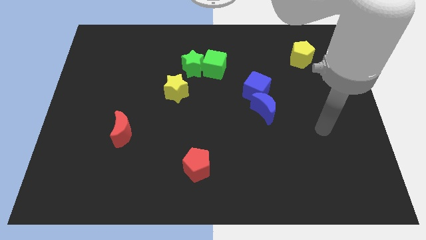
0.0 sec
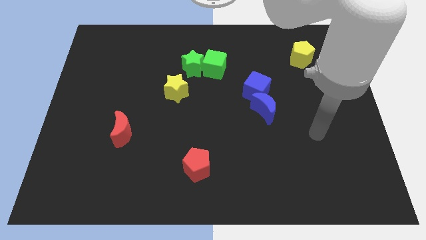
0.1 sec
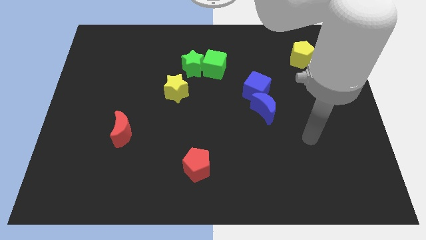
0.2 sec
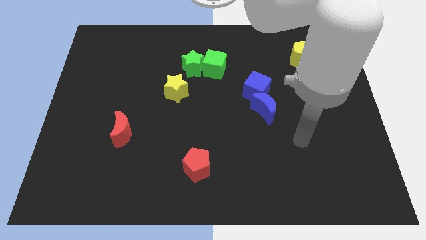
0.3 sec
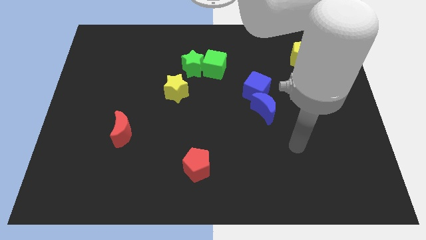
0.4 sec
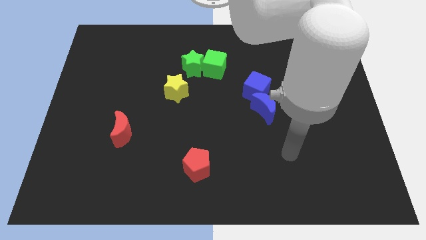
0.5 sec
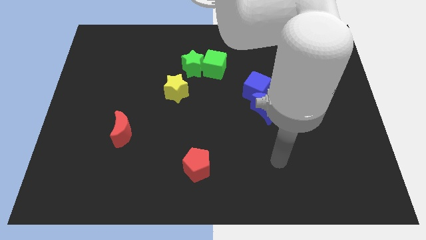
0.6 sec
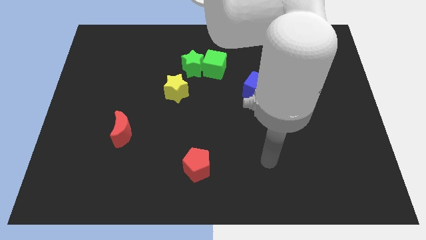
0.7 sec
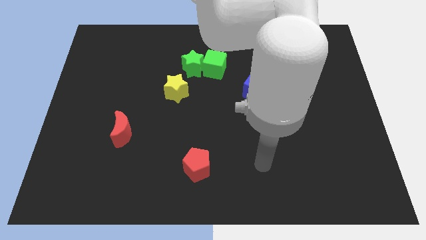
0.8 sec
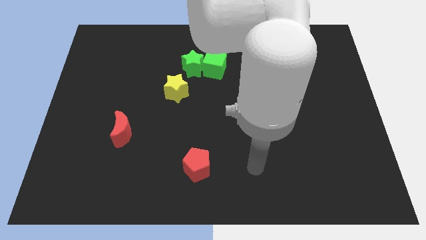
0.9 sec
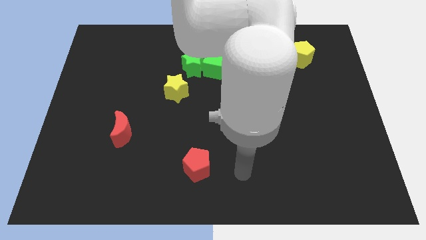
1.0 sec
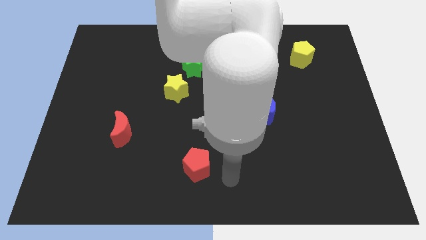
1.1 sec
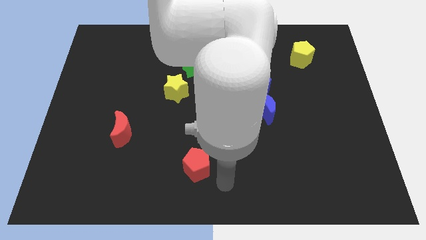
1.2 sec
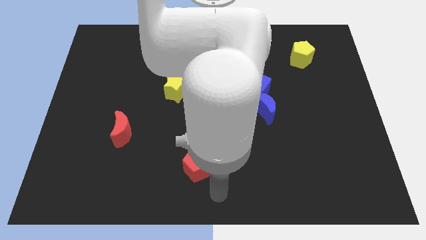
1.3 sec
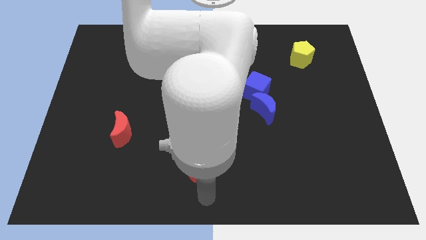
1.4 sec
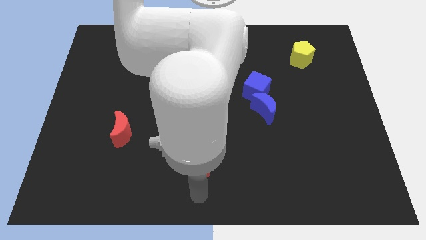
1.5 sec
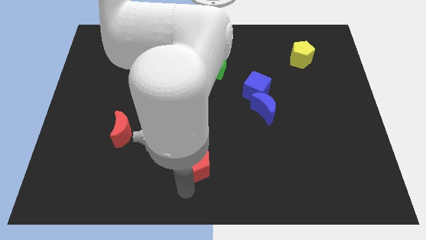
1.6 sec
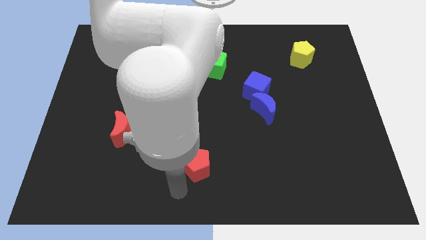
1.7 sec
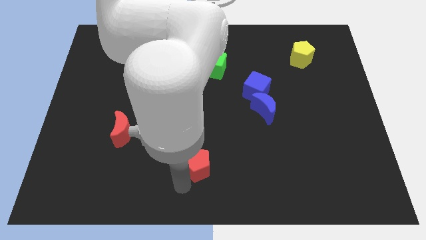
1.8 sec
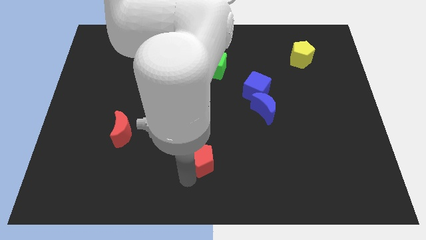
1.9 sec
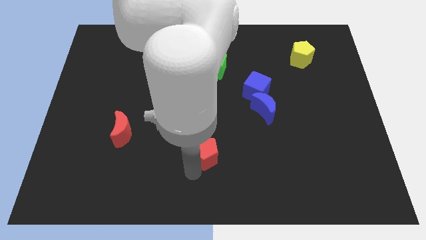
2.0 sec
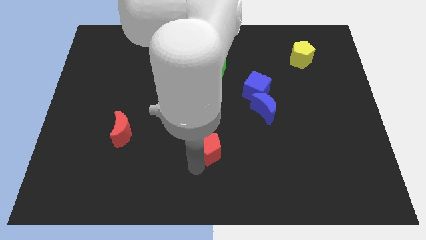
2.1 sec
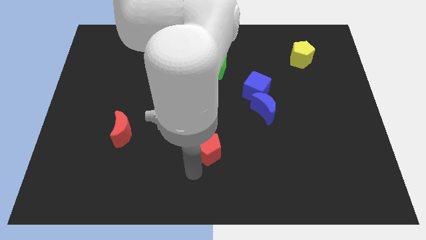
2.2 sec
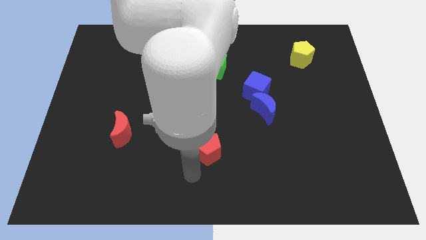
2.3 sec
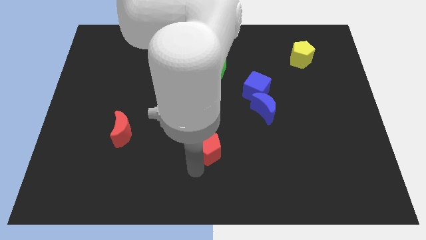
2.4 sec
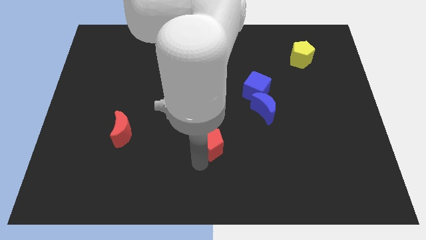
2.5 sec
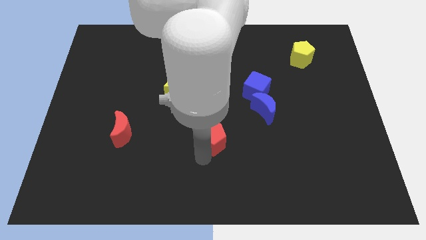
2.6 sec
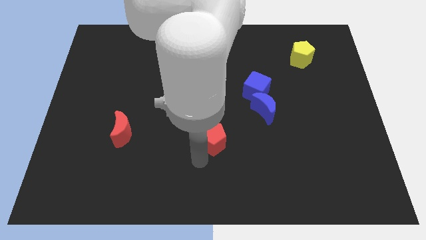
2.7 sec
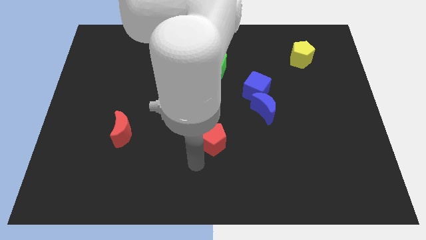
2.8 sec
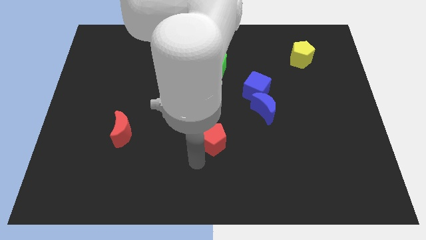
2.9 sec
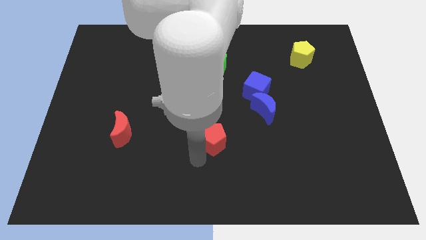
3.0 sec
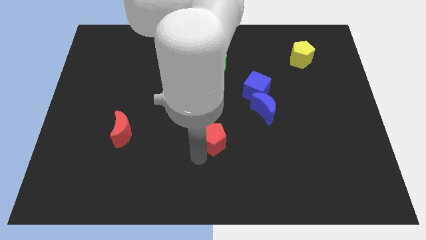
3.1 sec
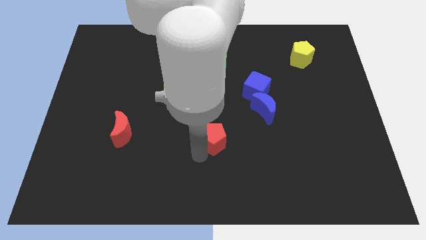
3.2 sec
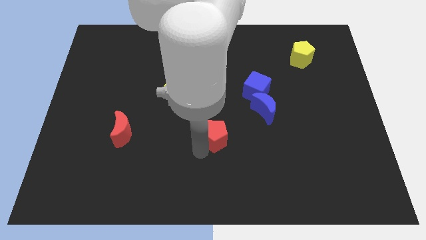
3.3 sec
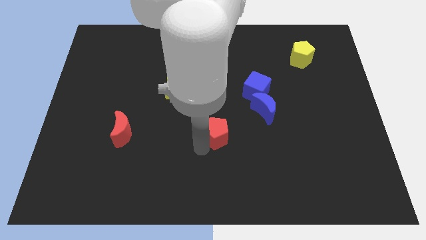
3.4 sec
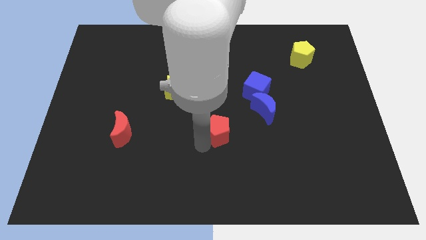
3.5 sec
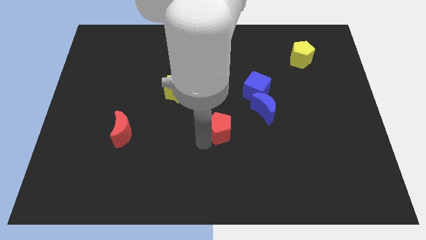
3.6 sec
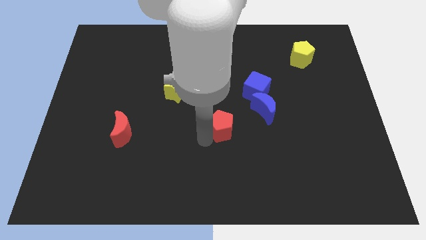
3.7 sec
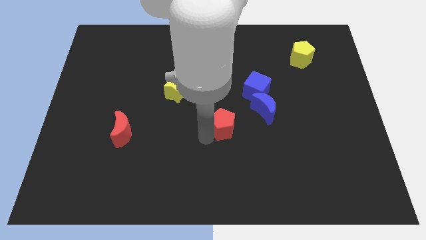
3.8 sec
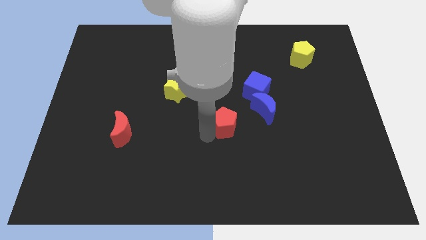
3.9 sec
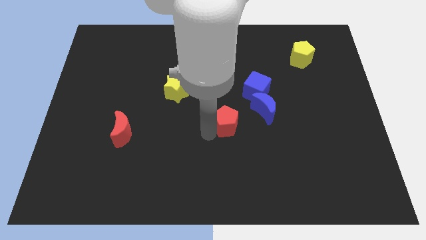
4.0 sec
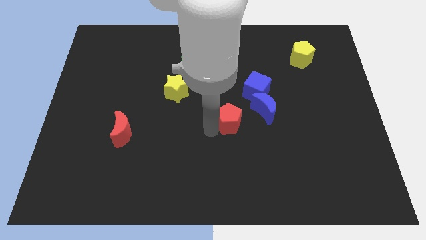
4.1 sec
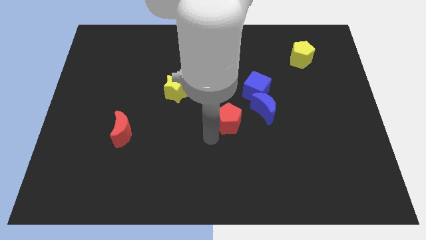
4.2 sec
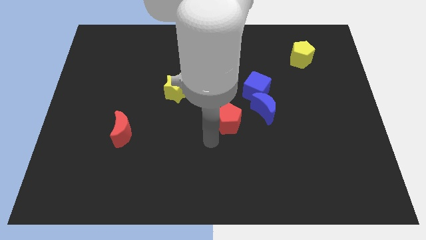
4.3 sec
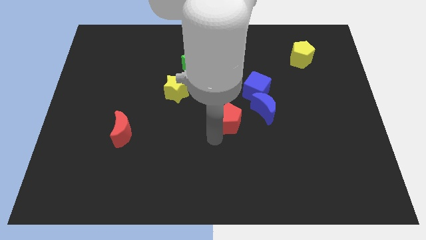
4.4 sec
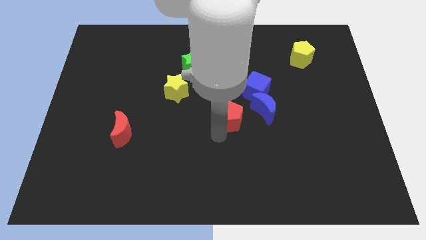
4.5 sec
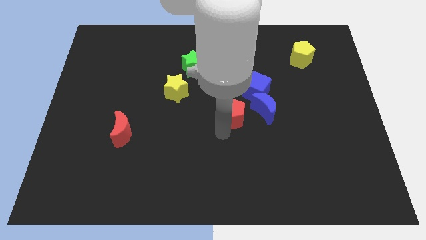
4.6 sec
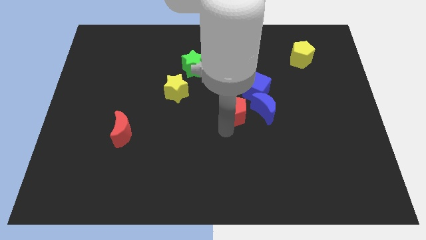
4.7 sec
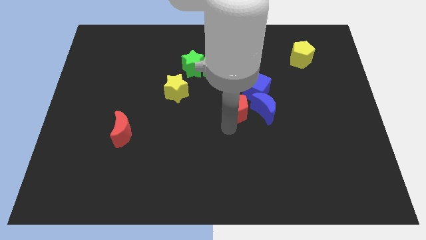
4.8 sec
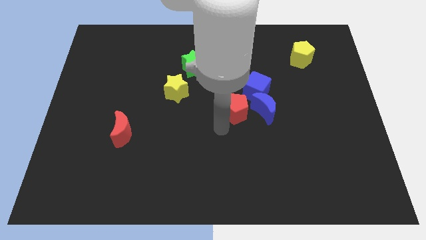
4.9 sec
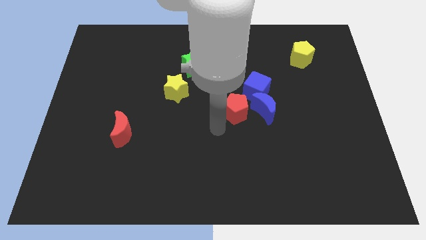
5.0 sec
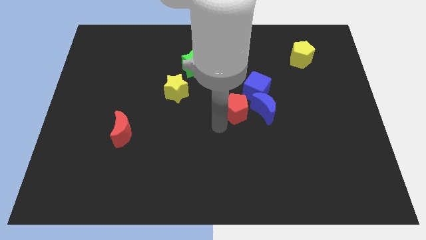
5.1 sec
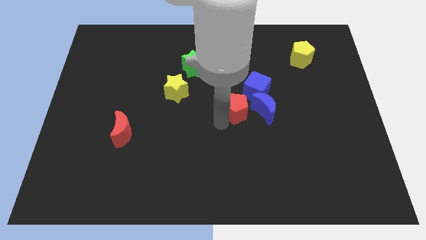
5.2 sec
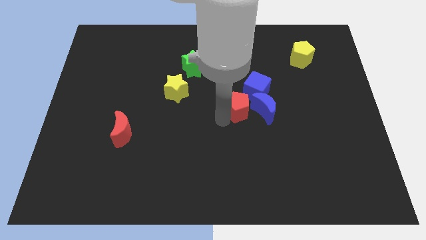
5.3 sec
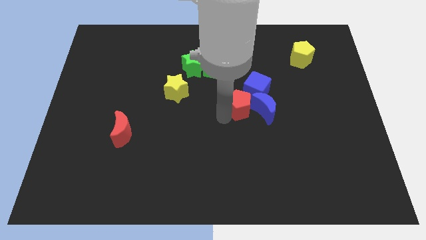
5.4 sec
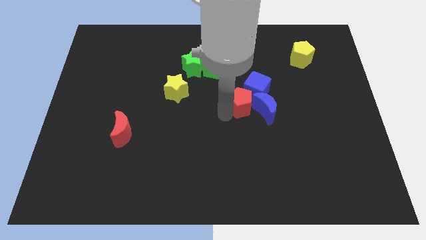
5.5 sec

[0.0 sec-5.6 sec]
move the red pentagon towards the blue cube

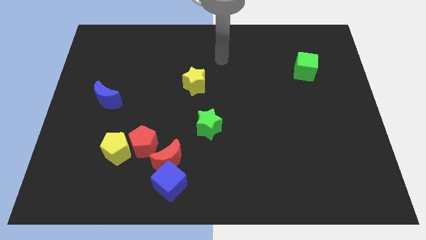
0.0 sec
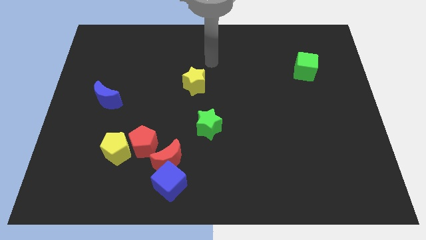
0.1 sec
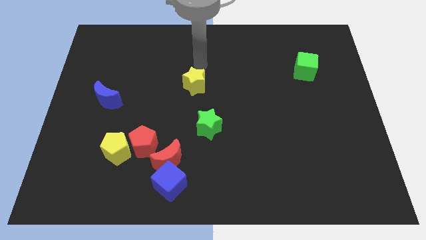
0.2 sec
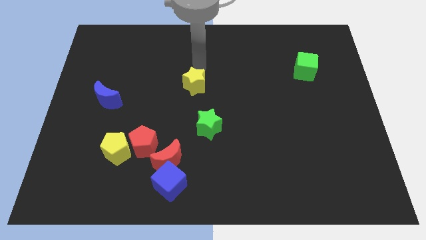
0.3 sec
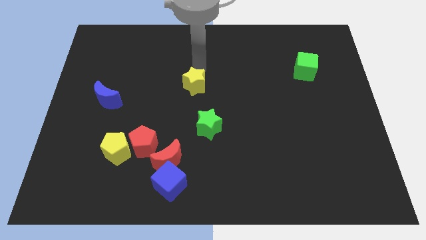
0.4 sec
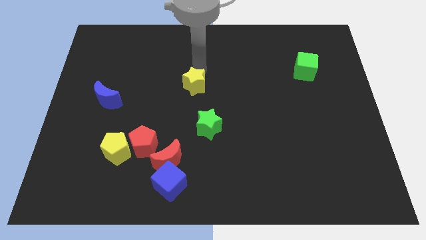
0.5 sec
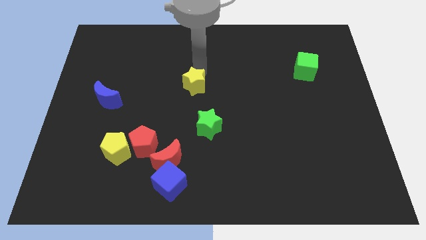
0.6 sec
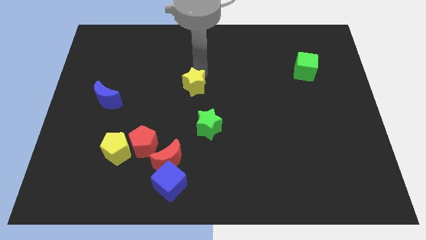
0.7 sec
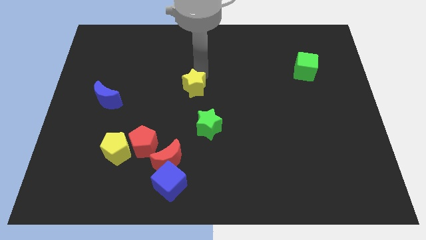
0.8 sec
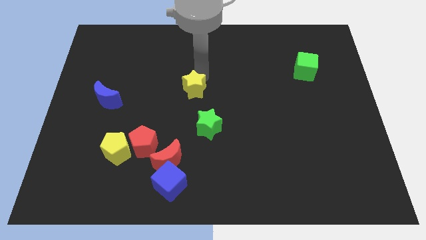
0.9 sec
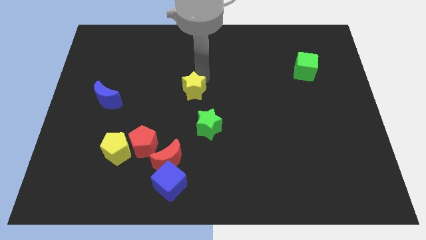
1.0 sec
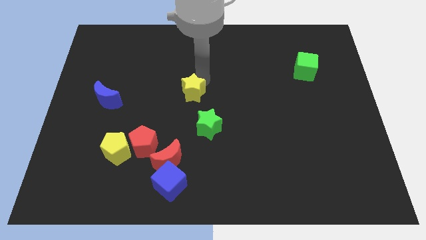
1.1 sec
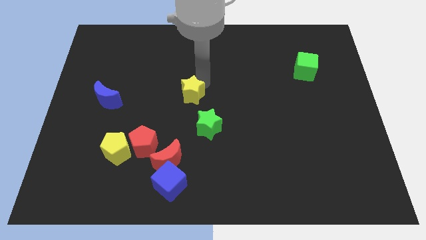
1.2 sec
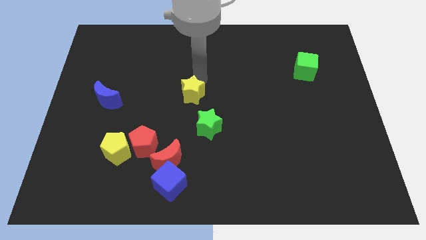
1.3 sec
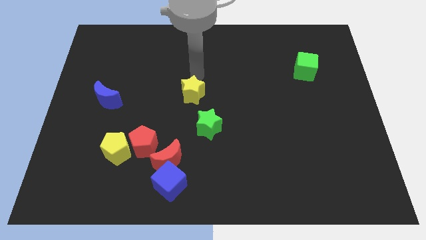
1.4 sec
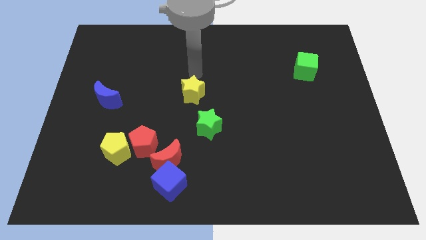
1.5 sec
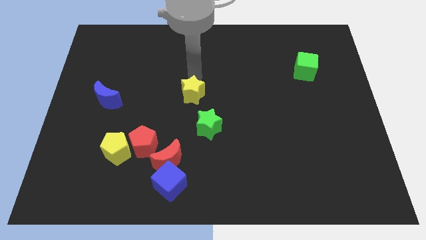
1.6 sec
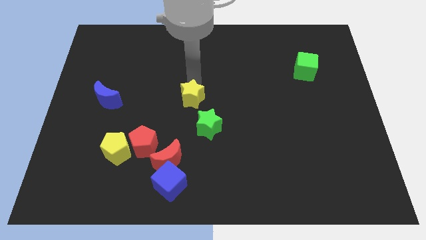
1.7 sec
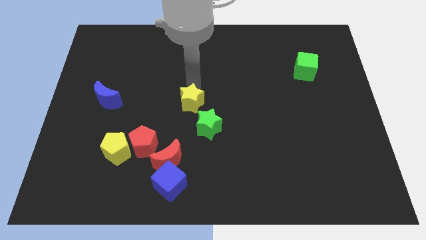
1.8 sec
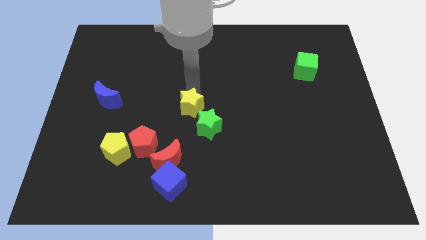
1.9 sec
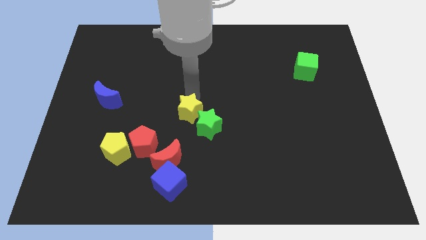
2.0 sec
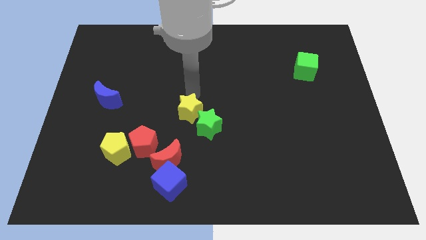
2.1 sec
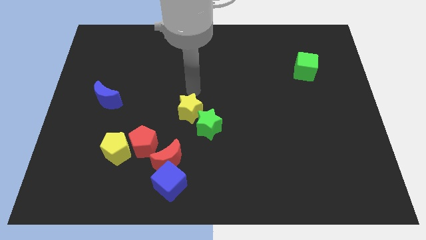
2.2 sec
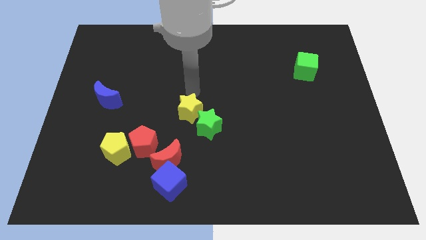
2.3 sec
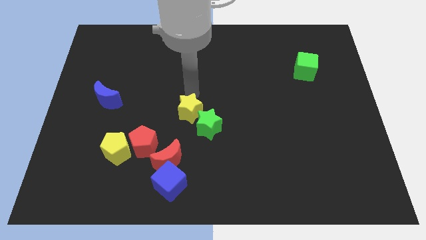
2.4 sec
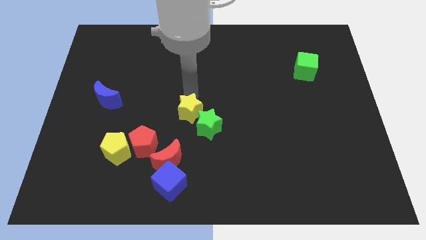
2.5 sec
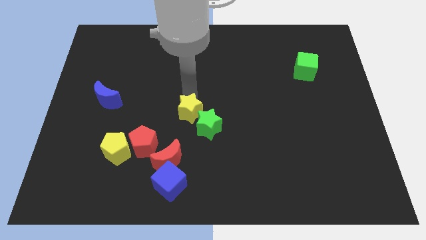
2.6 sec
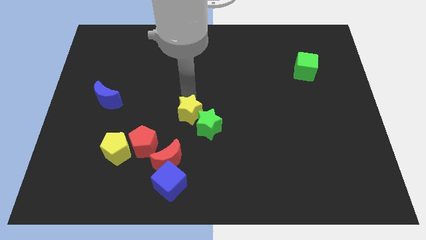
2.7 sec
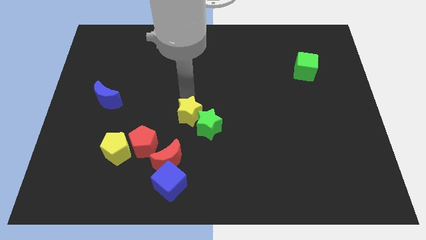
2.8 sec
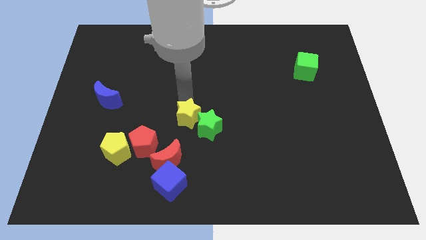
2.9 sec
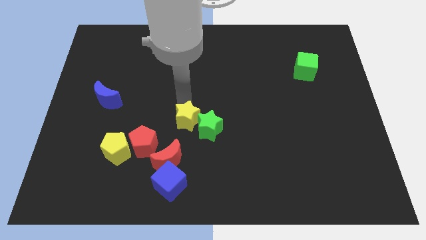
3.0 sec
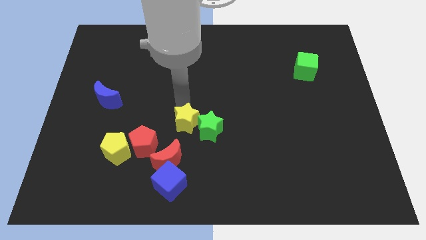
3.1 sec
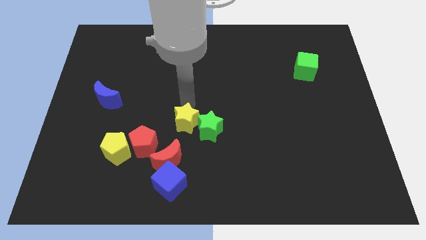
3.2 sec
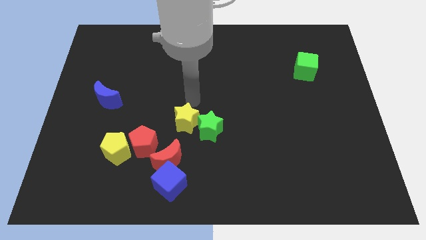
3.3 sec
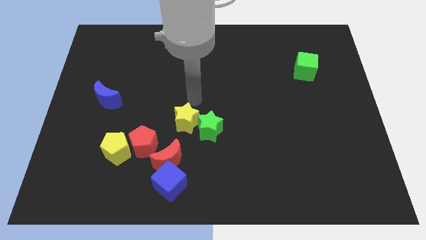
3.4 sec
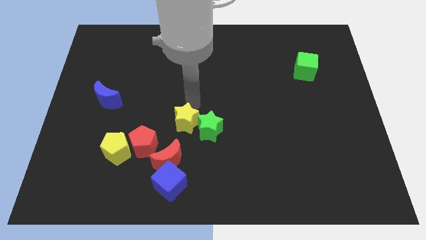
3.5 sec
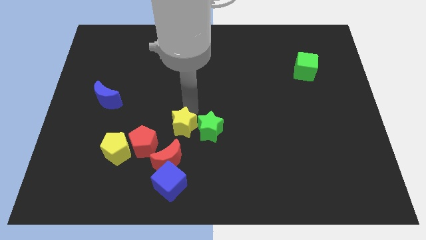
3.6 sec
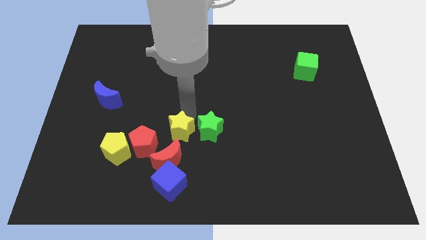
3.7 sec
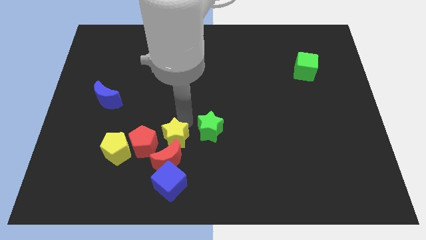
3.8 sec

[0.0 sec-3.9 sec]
move the yellow star close to the red moon
